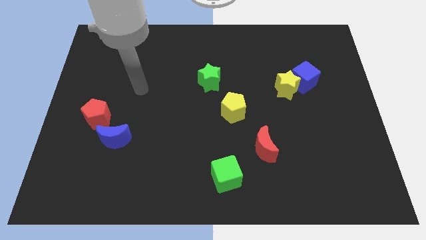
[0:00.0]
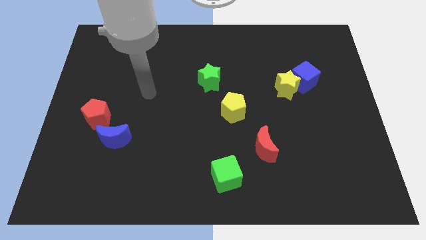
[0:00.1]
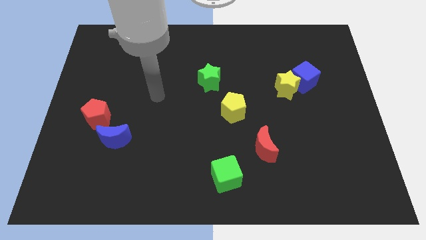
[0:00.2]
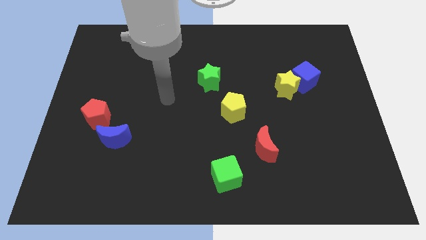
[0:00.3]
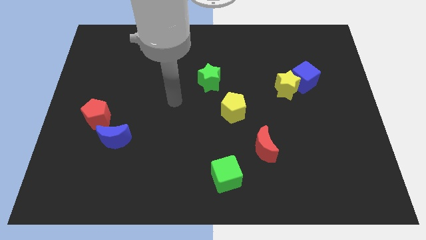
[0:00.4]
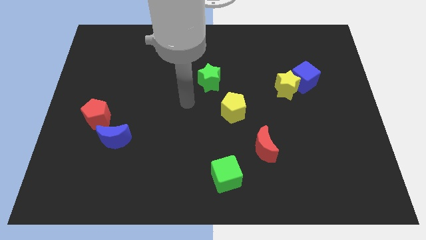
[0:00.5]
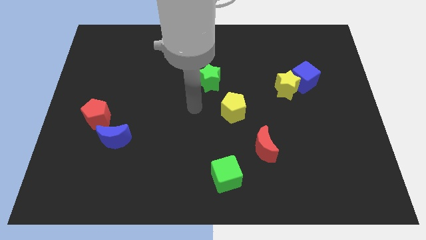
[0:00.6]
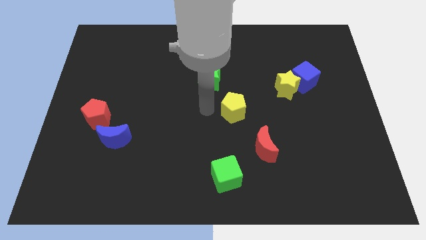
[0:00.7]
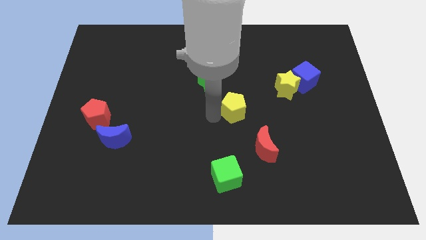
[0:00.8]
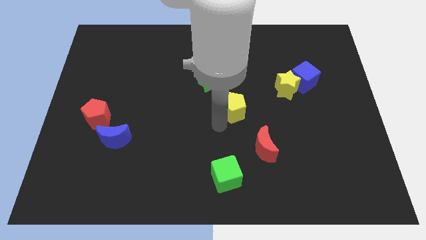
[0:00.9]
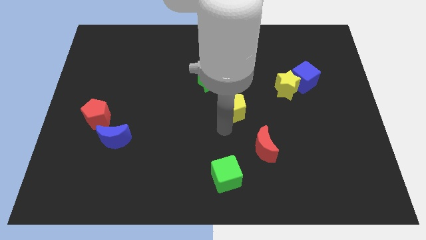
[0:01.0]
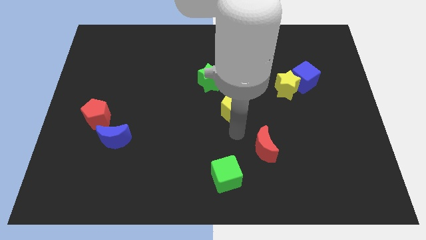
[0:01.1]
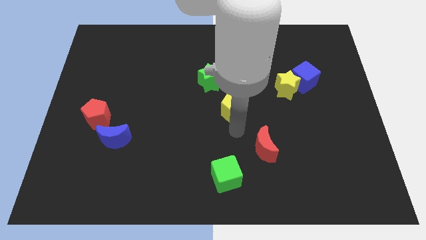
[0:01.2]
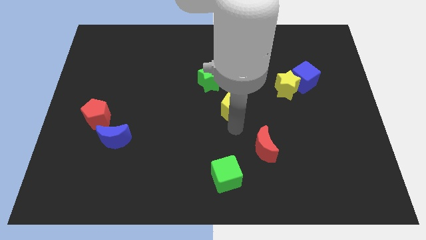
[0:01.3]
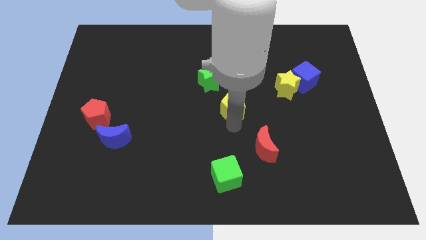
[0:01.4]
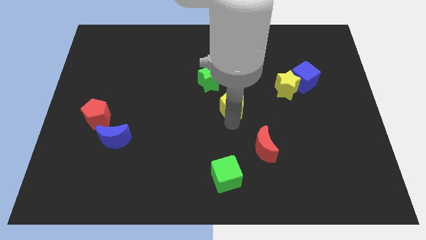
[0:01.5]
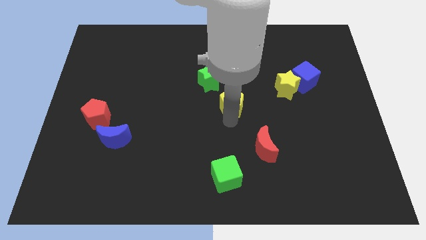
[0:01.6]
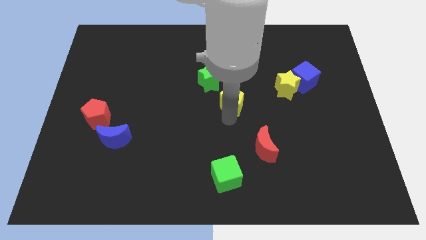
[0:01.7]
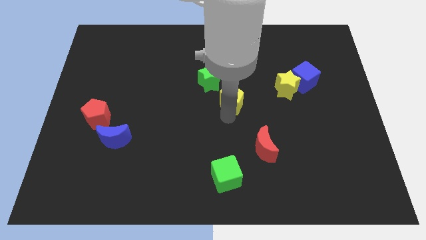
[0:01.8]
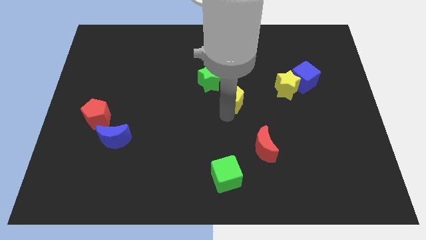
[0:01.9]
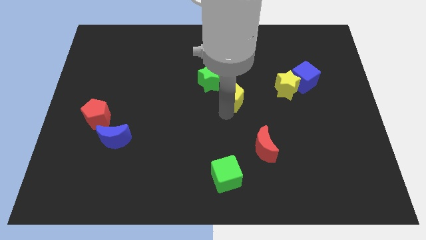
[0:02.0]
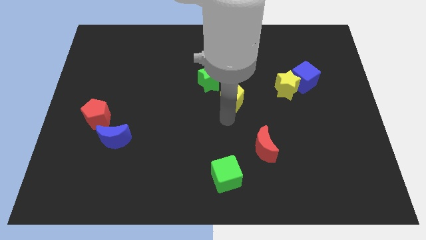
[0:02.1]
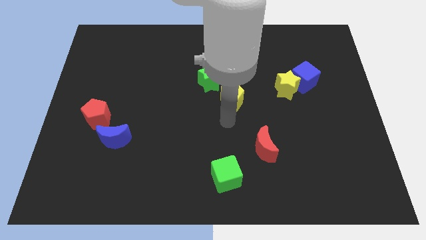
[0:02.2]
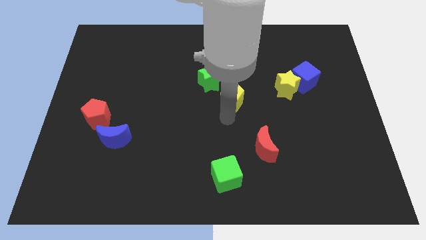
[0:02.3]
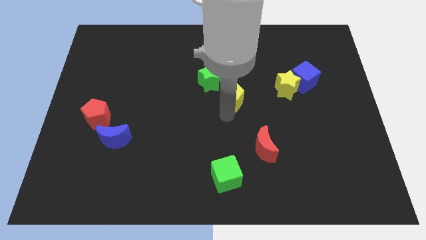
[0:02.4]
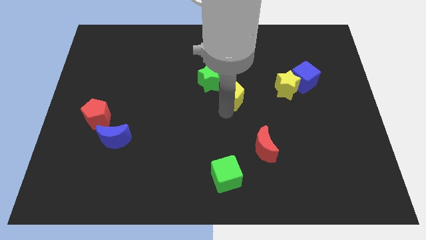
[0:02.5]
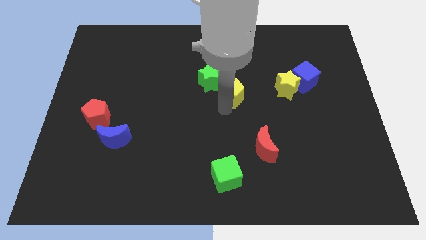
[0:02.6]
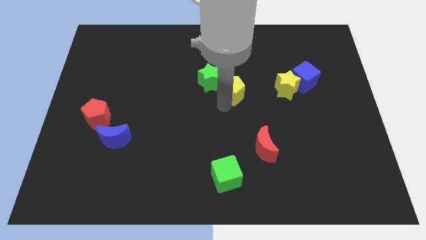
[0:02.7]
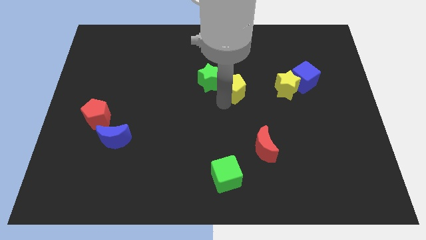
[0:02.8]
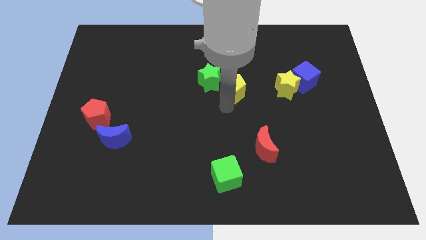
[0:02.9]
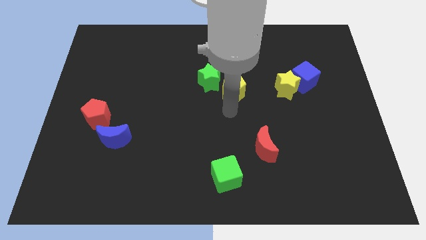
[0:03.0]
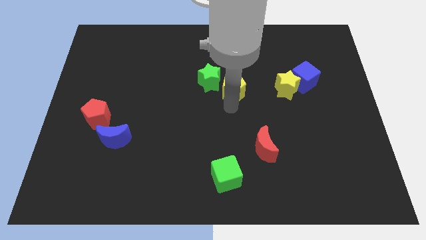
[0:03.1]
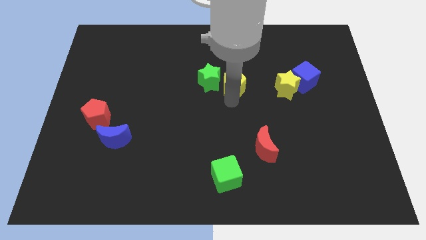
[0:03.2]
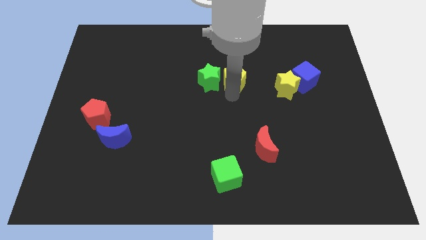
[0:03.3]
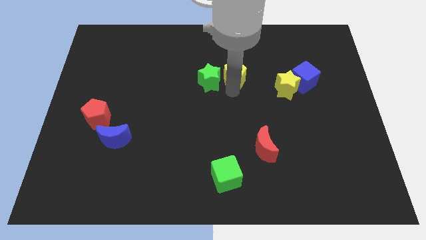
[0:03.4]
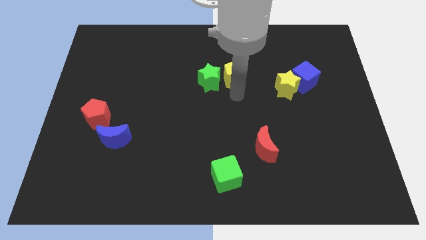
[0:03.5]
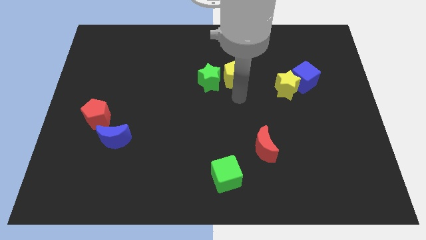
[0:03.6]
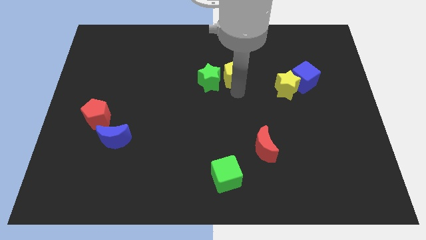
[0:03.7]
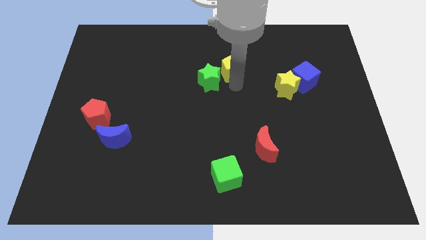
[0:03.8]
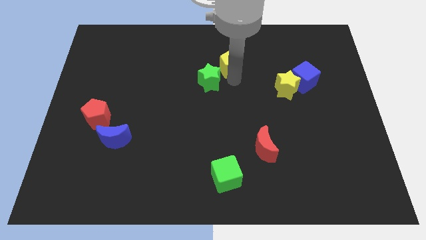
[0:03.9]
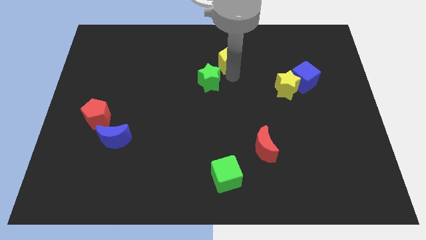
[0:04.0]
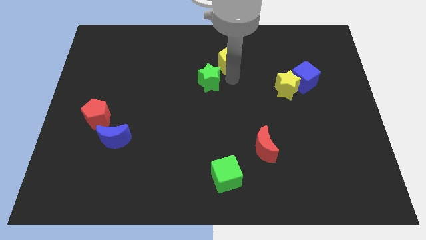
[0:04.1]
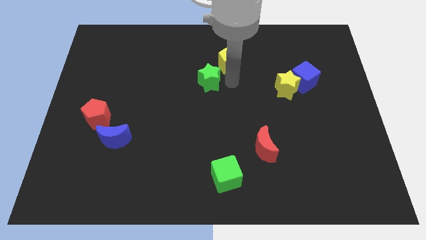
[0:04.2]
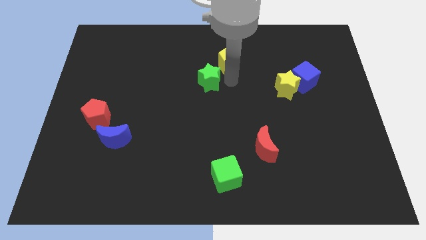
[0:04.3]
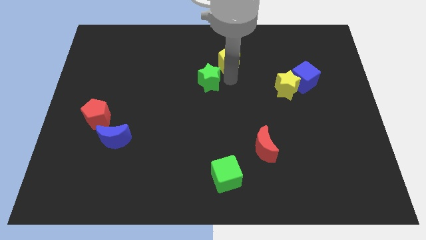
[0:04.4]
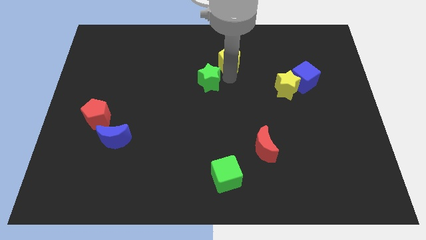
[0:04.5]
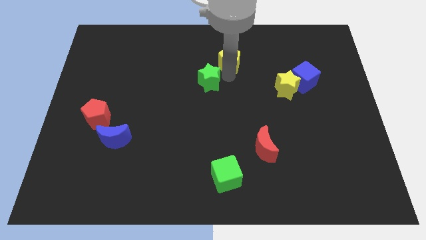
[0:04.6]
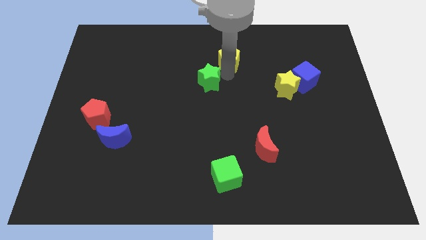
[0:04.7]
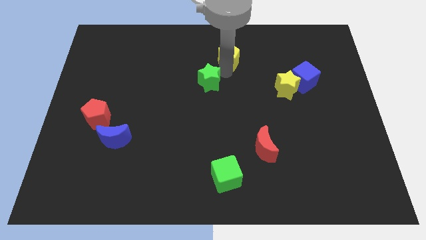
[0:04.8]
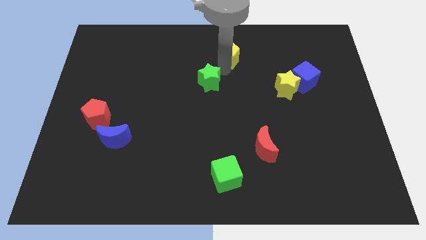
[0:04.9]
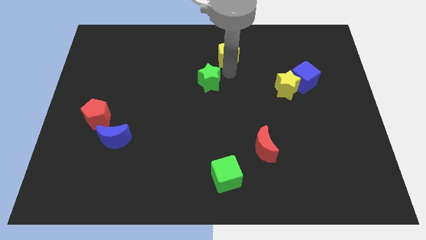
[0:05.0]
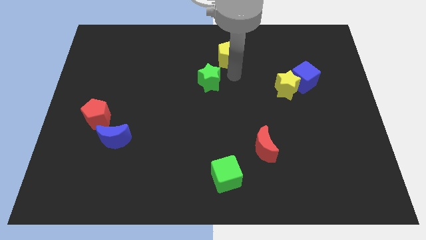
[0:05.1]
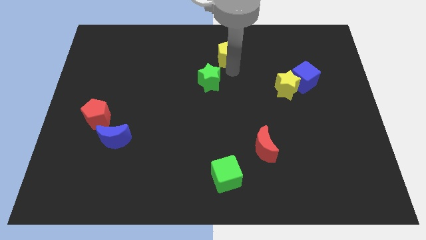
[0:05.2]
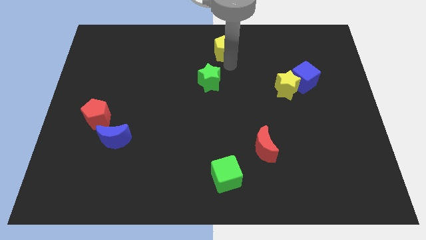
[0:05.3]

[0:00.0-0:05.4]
put the yellow pentagon to the top
